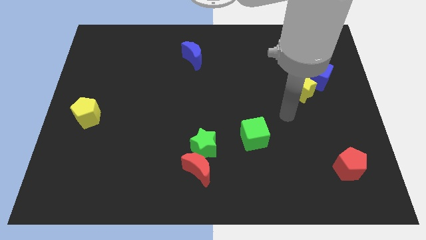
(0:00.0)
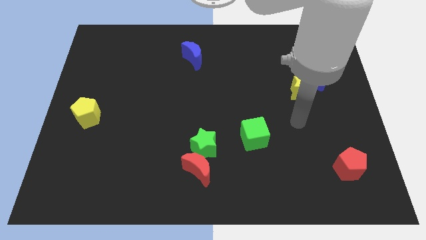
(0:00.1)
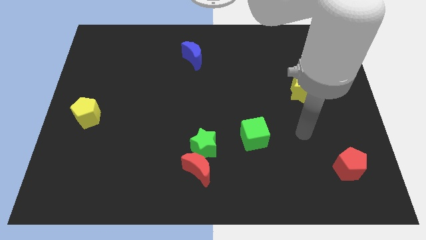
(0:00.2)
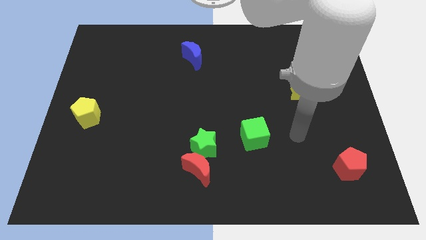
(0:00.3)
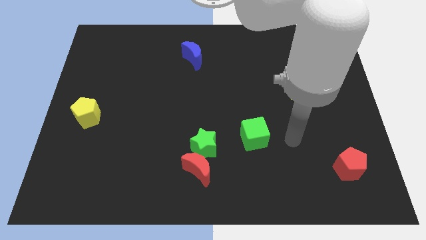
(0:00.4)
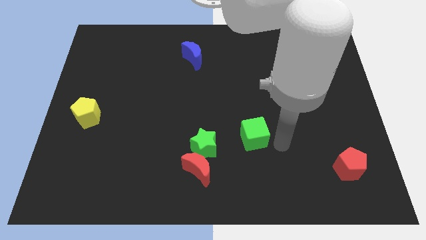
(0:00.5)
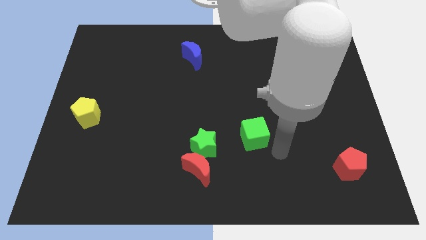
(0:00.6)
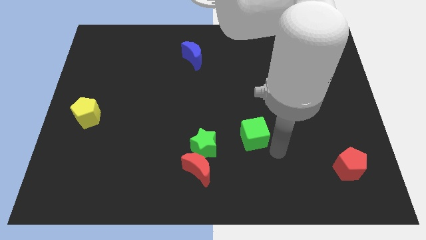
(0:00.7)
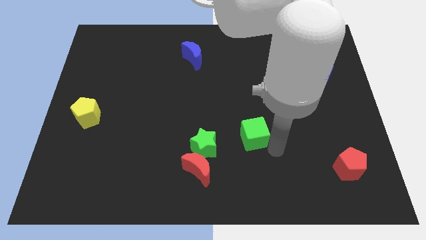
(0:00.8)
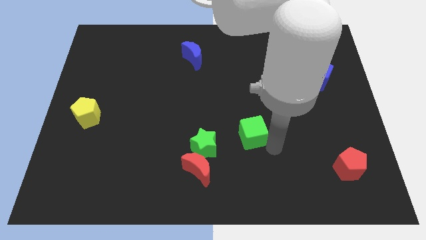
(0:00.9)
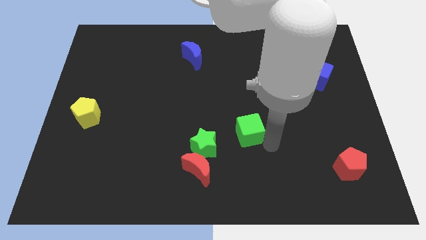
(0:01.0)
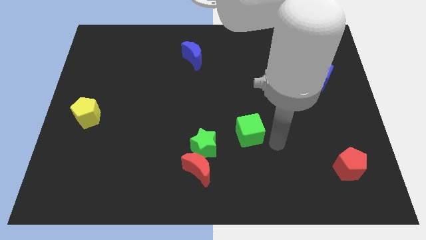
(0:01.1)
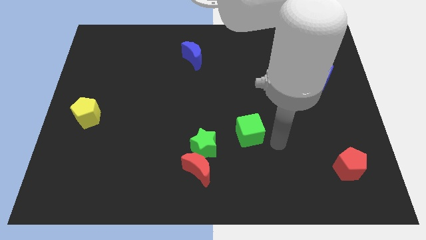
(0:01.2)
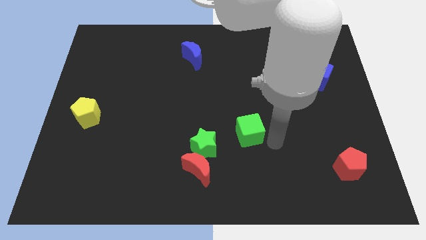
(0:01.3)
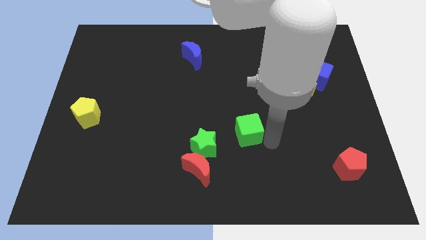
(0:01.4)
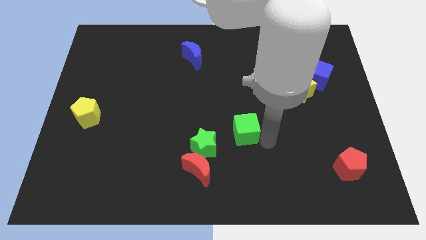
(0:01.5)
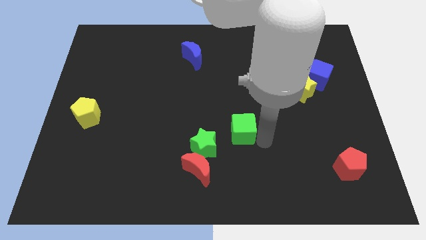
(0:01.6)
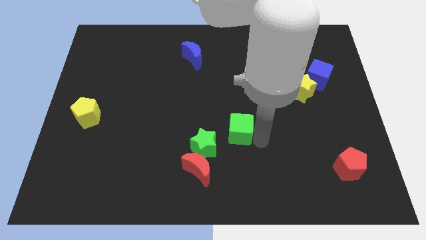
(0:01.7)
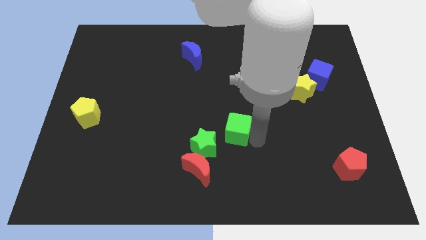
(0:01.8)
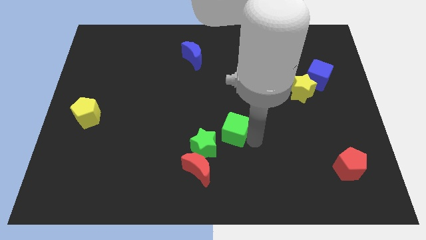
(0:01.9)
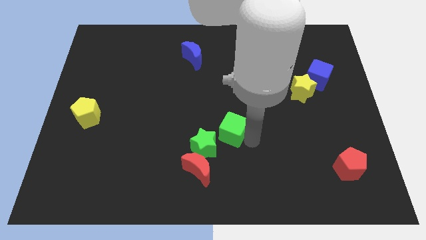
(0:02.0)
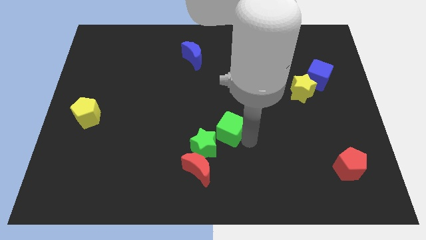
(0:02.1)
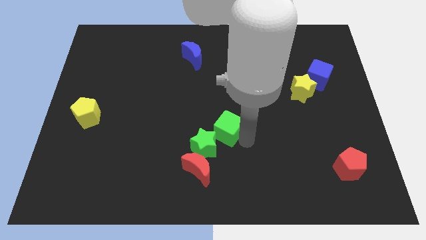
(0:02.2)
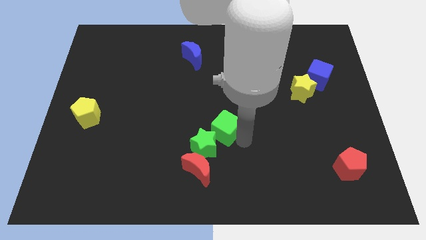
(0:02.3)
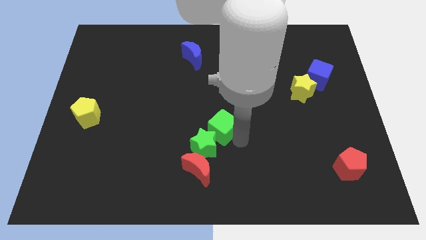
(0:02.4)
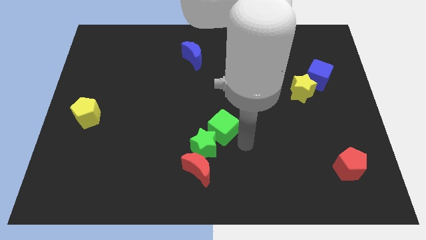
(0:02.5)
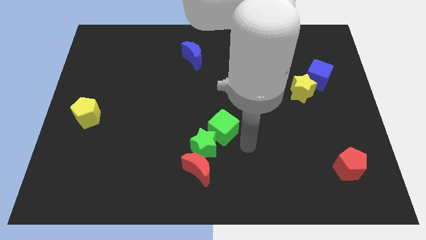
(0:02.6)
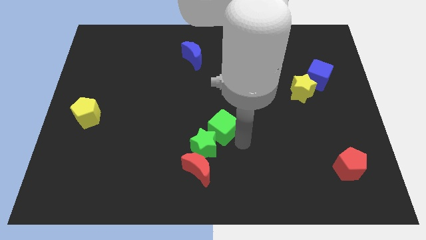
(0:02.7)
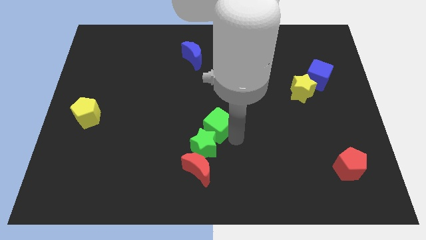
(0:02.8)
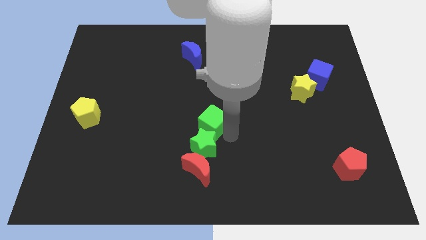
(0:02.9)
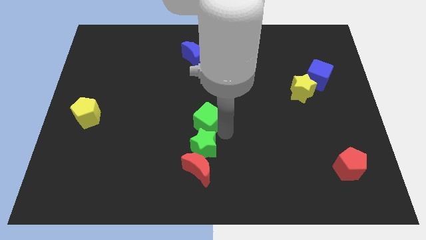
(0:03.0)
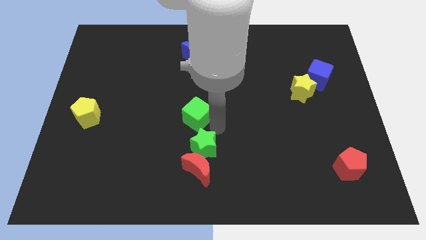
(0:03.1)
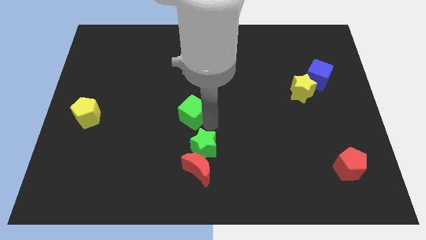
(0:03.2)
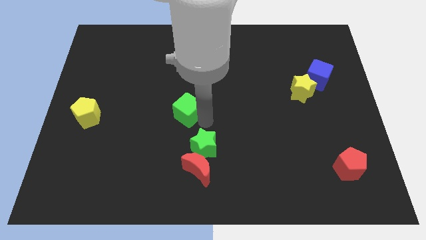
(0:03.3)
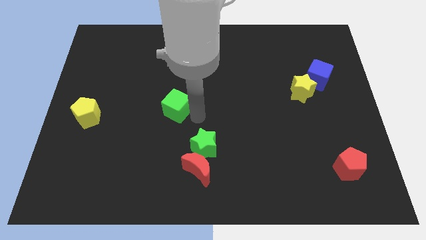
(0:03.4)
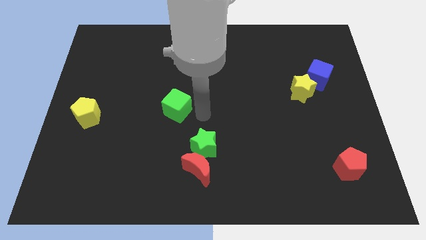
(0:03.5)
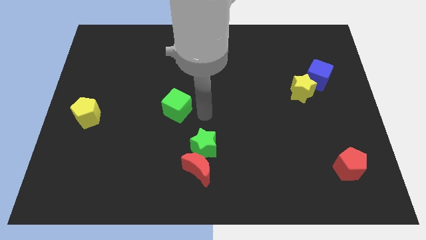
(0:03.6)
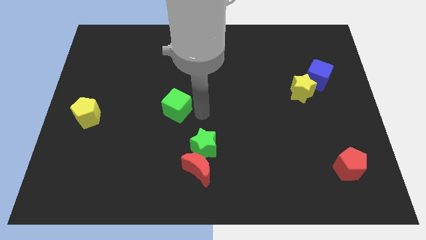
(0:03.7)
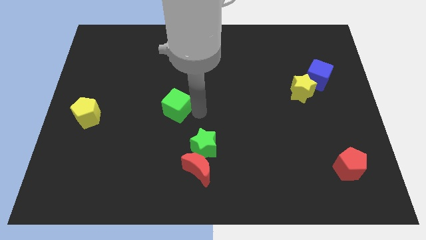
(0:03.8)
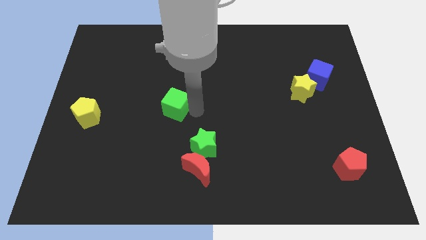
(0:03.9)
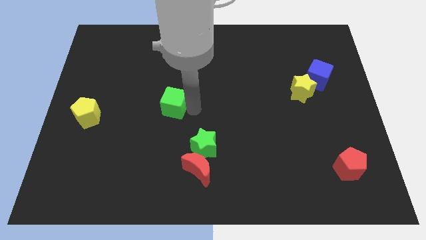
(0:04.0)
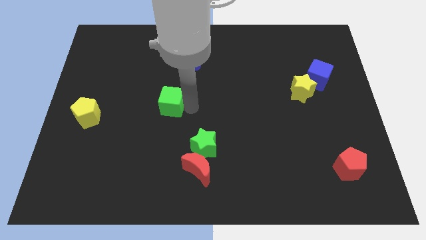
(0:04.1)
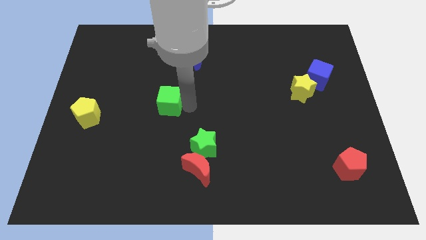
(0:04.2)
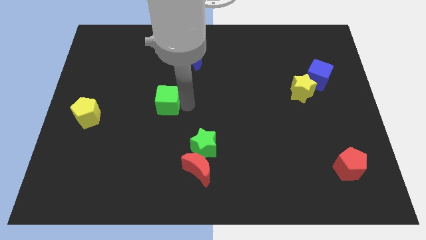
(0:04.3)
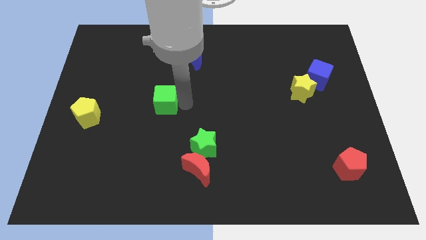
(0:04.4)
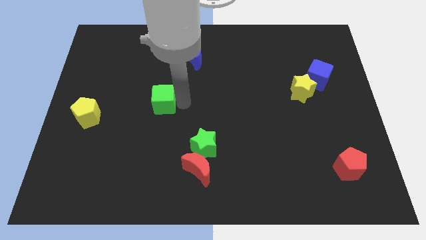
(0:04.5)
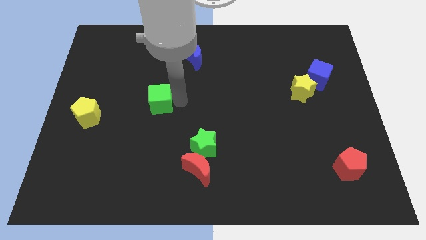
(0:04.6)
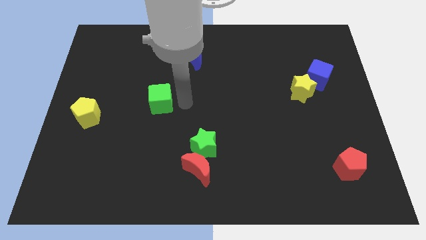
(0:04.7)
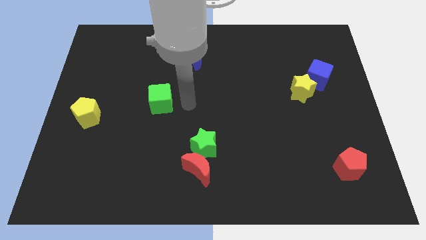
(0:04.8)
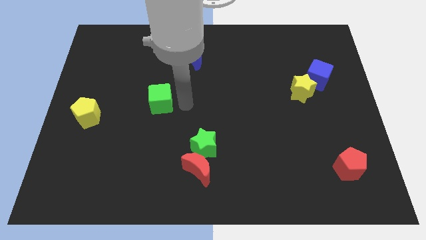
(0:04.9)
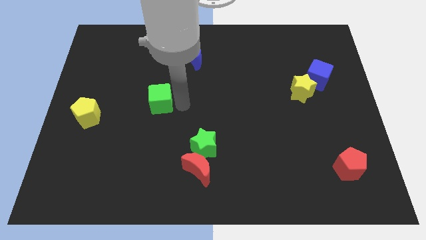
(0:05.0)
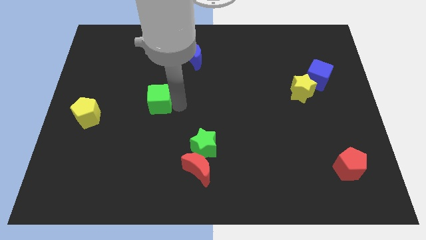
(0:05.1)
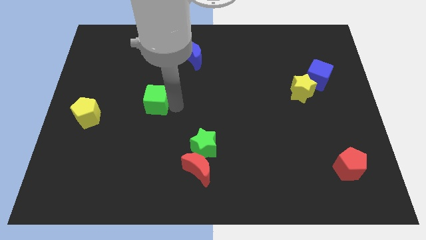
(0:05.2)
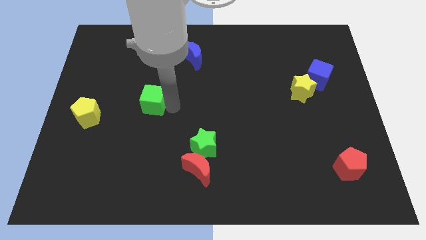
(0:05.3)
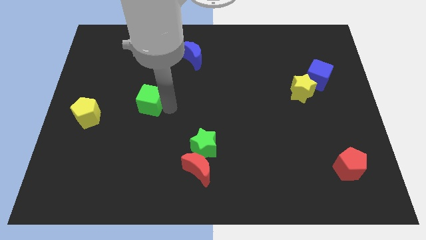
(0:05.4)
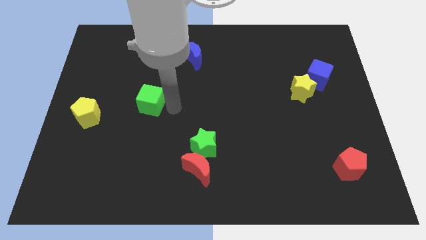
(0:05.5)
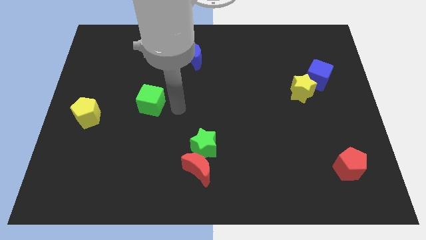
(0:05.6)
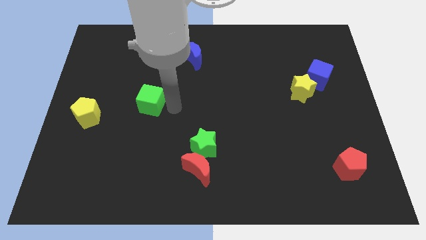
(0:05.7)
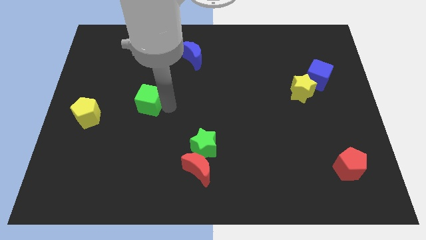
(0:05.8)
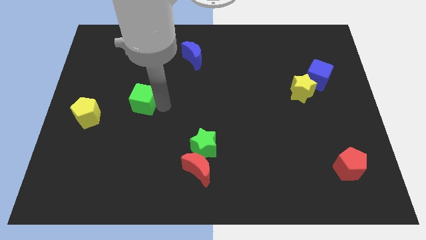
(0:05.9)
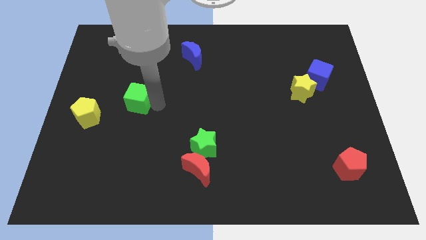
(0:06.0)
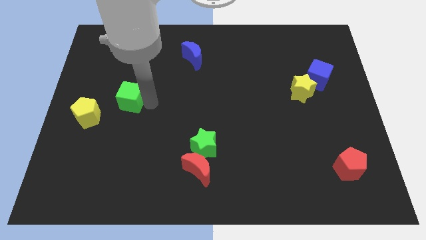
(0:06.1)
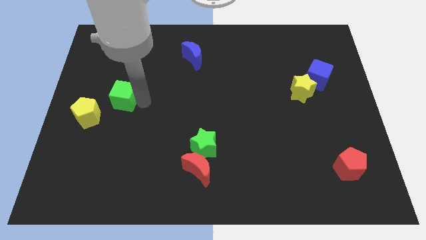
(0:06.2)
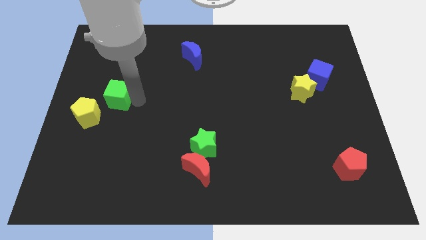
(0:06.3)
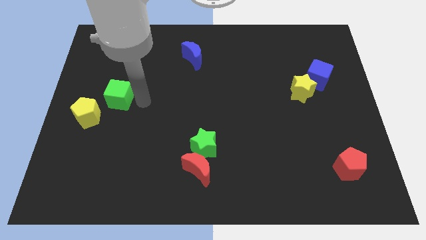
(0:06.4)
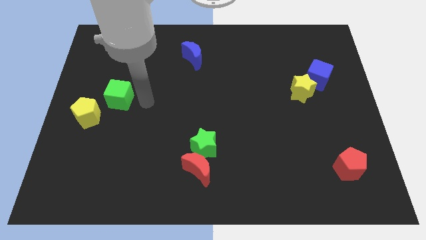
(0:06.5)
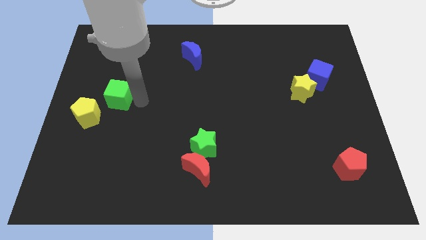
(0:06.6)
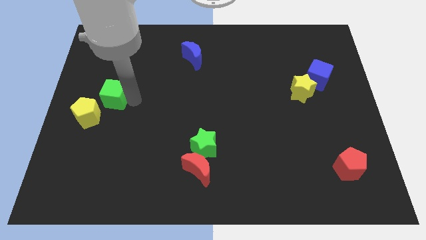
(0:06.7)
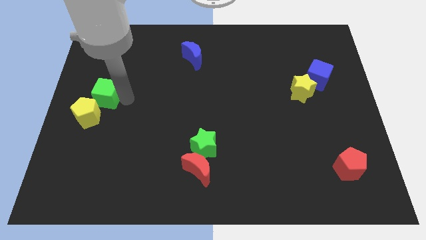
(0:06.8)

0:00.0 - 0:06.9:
move the green cube to the center left
